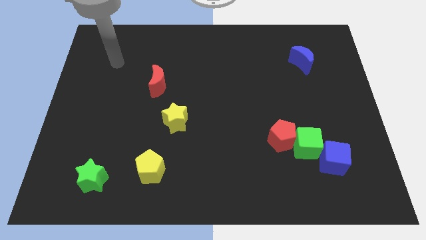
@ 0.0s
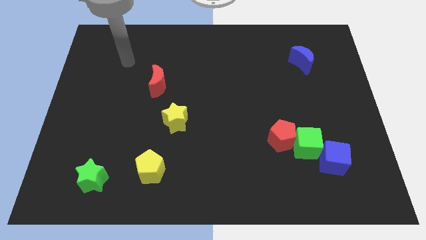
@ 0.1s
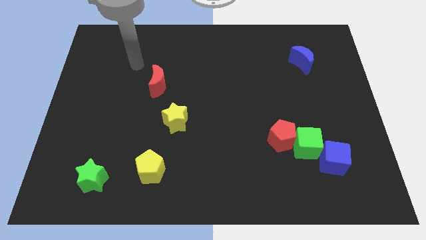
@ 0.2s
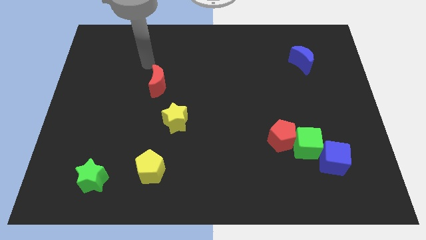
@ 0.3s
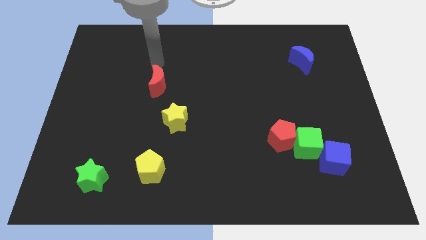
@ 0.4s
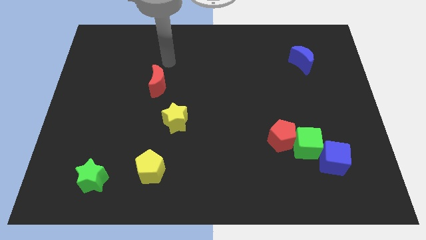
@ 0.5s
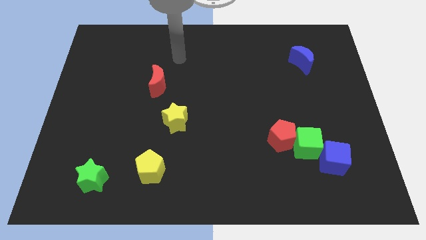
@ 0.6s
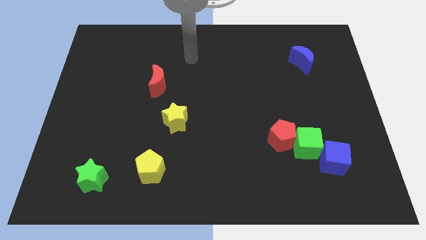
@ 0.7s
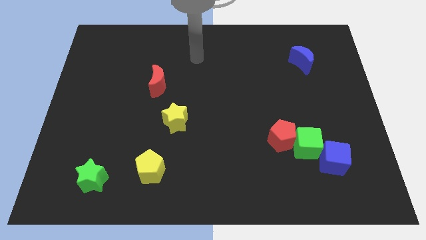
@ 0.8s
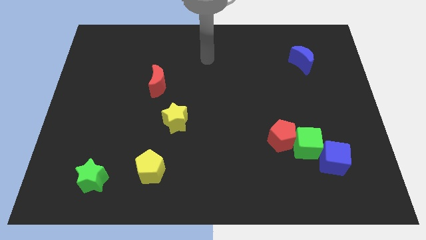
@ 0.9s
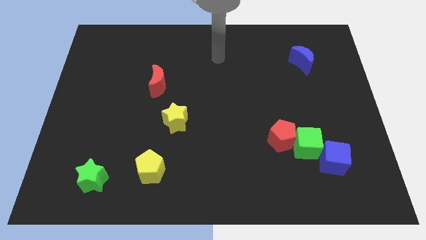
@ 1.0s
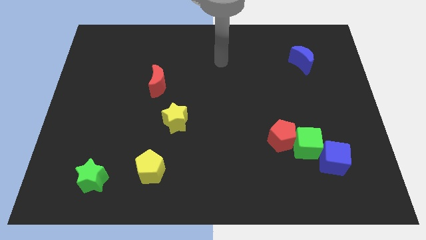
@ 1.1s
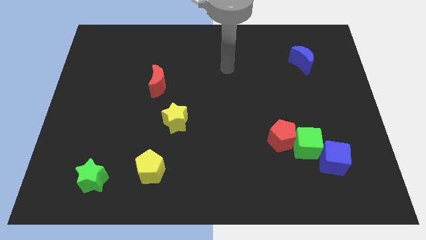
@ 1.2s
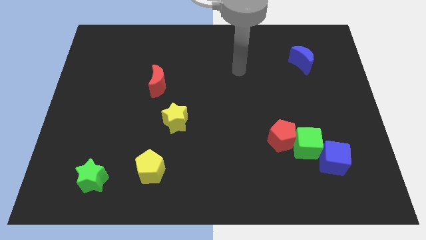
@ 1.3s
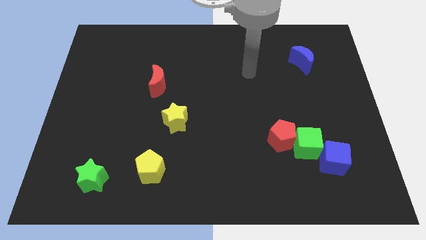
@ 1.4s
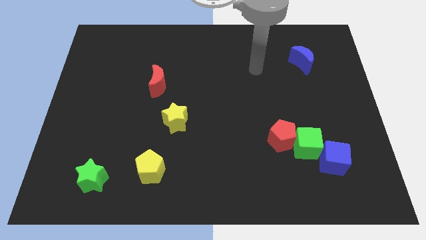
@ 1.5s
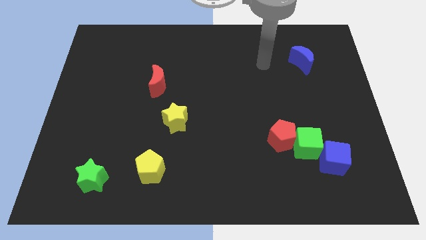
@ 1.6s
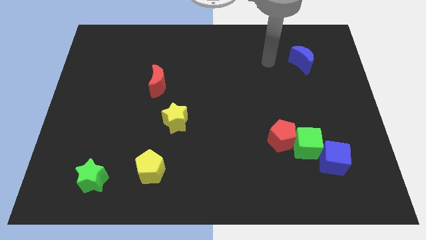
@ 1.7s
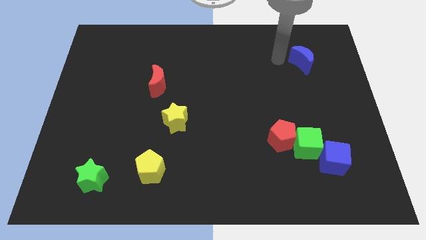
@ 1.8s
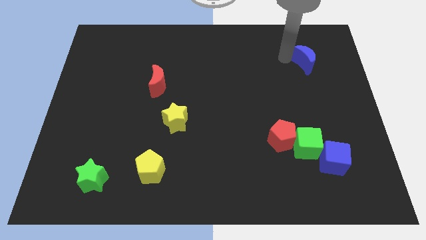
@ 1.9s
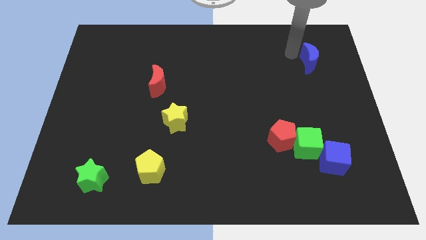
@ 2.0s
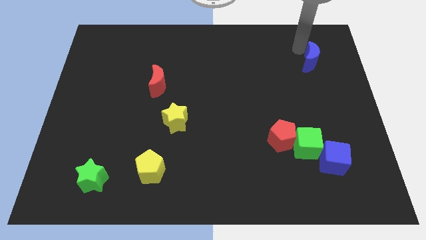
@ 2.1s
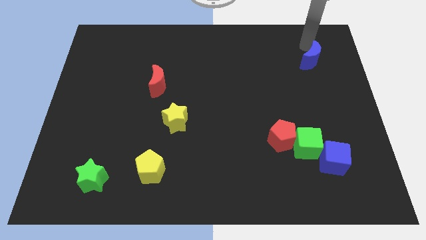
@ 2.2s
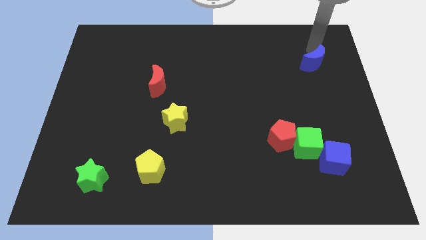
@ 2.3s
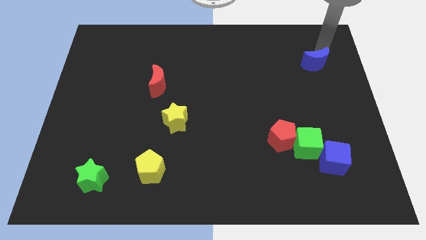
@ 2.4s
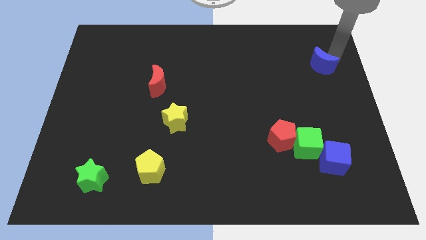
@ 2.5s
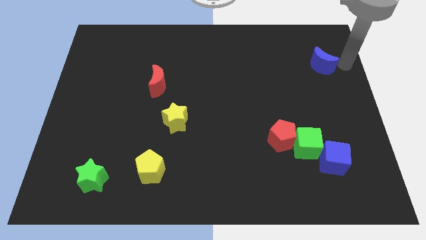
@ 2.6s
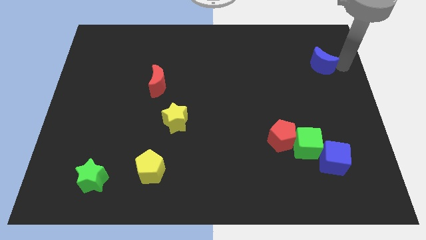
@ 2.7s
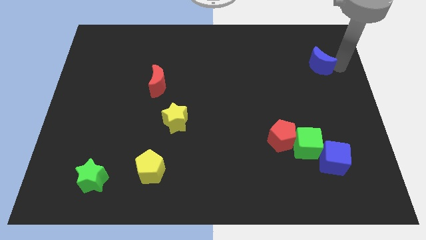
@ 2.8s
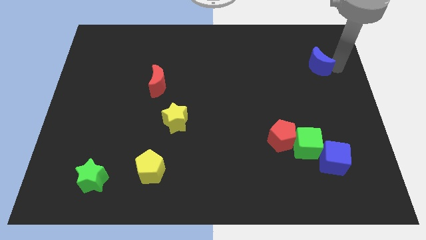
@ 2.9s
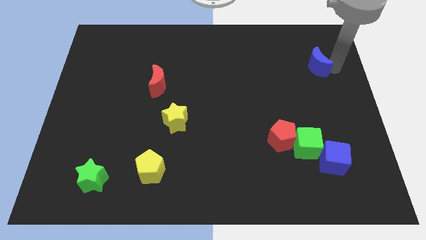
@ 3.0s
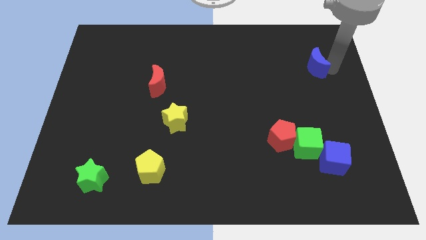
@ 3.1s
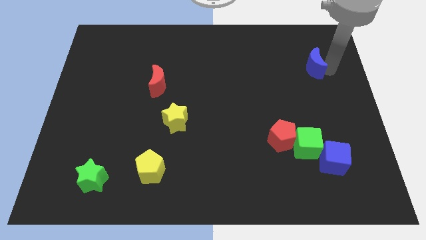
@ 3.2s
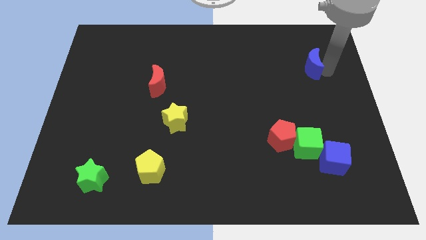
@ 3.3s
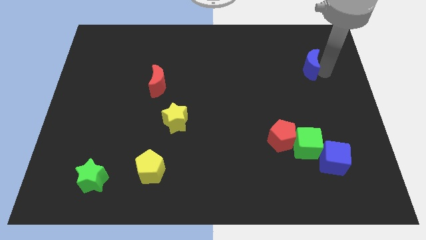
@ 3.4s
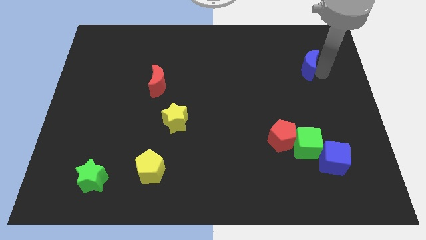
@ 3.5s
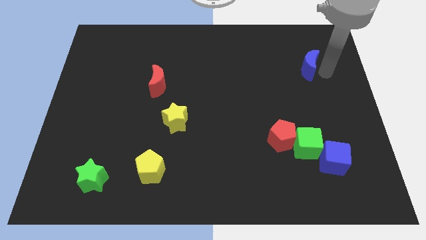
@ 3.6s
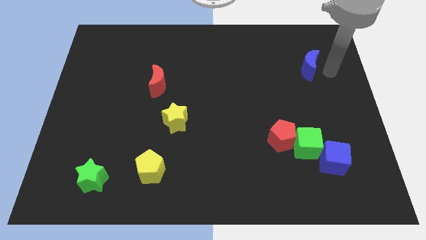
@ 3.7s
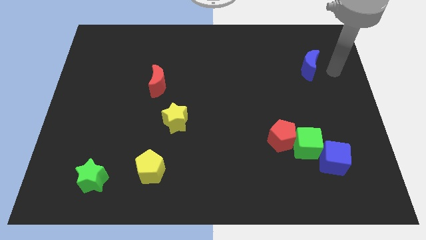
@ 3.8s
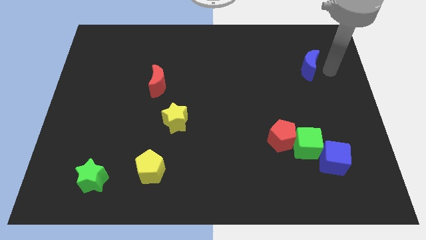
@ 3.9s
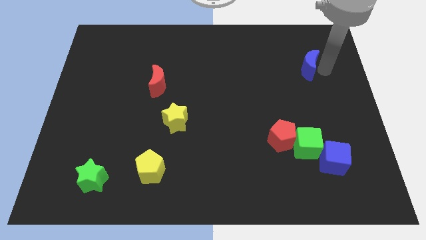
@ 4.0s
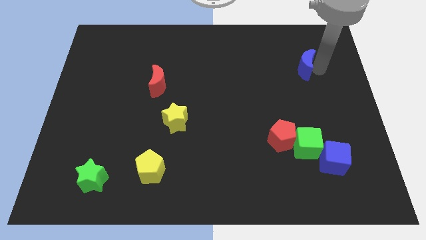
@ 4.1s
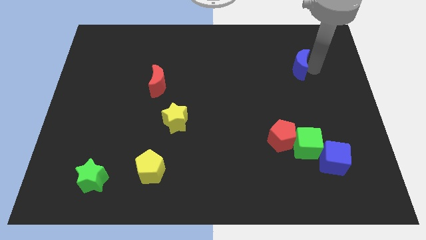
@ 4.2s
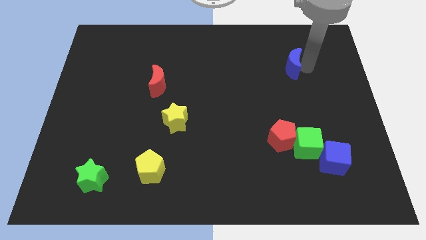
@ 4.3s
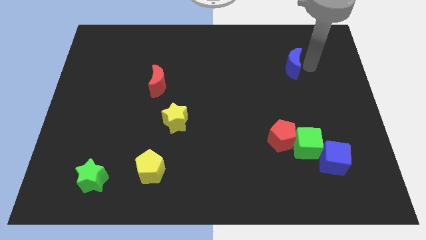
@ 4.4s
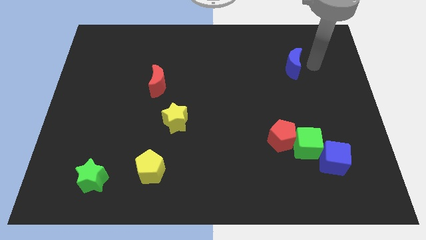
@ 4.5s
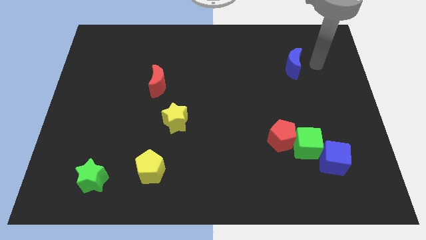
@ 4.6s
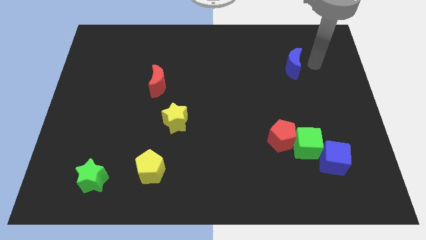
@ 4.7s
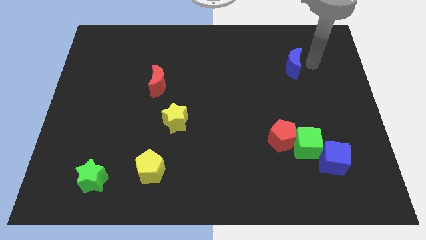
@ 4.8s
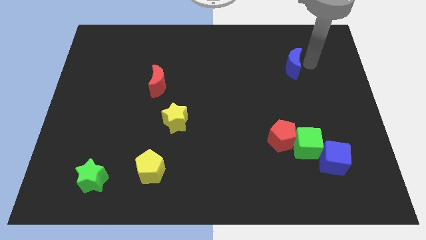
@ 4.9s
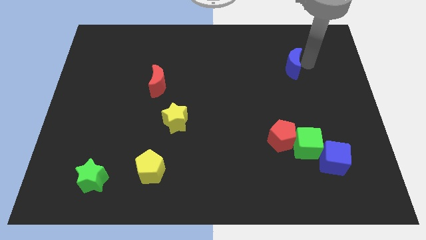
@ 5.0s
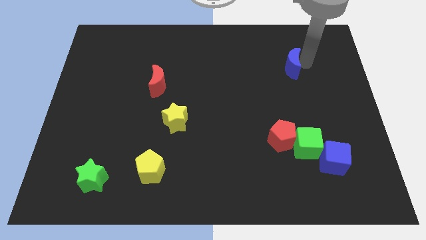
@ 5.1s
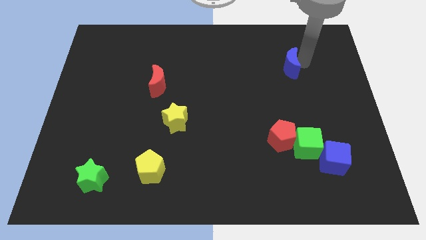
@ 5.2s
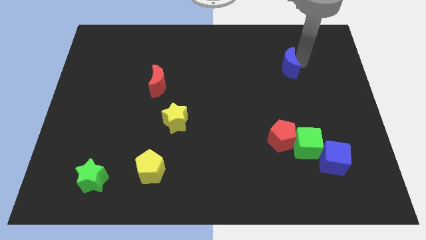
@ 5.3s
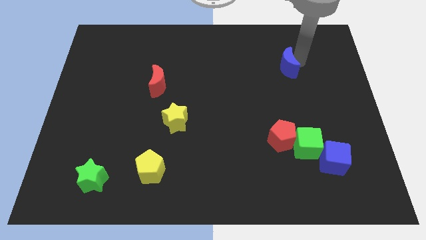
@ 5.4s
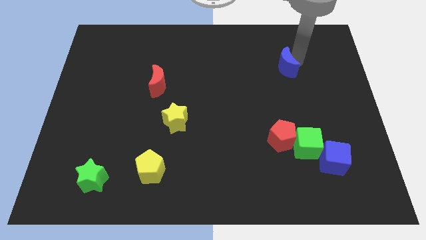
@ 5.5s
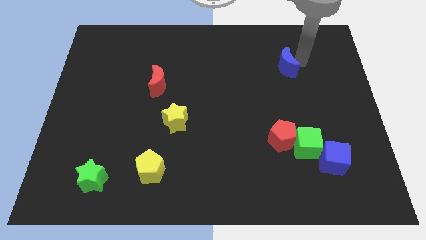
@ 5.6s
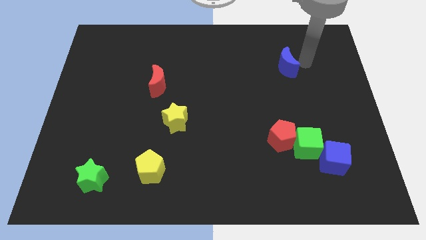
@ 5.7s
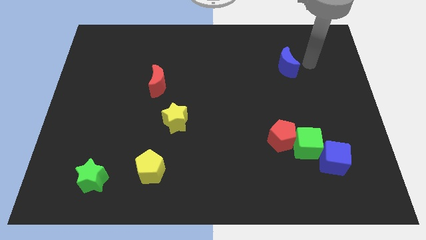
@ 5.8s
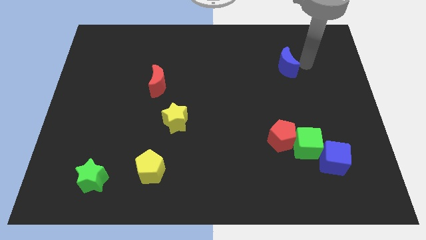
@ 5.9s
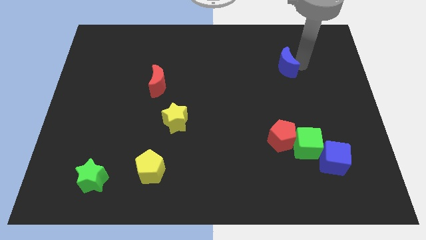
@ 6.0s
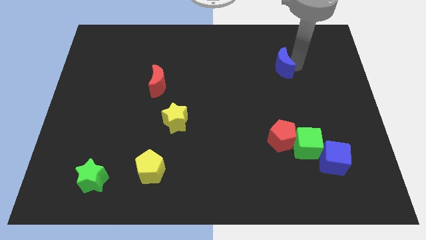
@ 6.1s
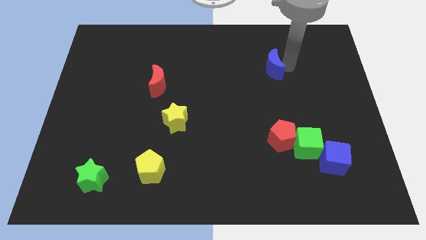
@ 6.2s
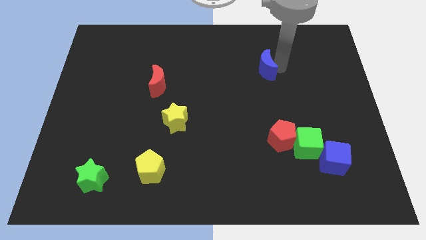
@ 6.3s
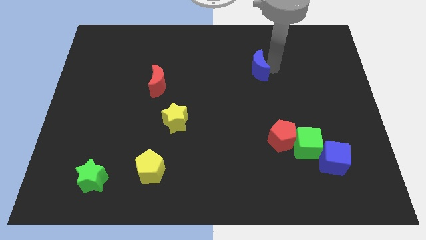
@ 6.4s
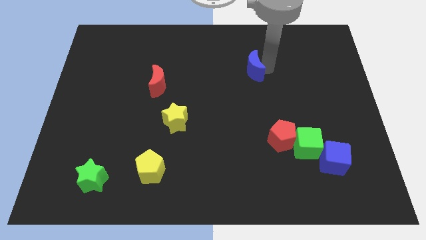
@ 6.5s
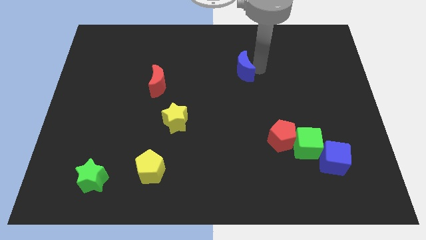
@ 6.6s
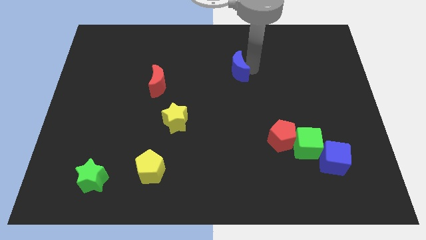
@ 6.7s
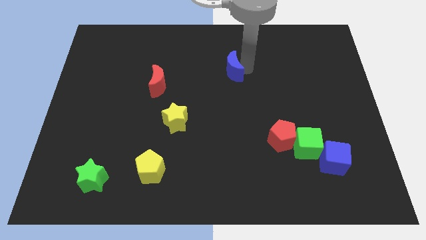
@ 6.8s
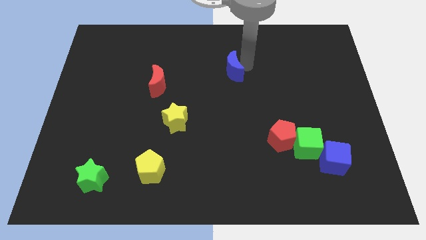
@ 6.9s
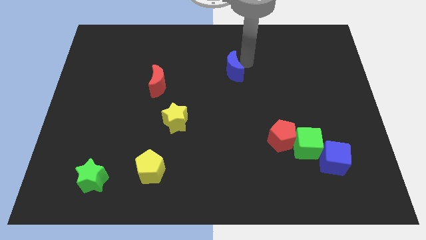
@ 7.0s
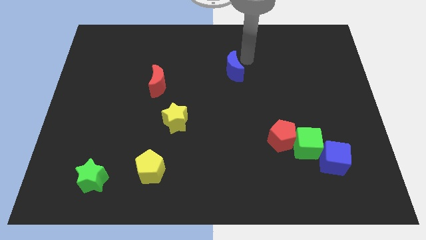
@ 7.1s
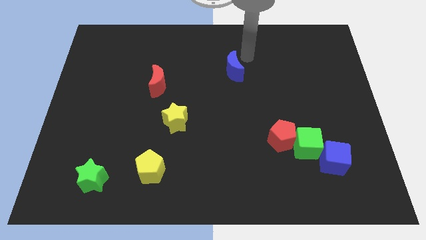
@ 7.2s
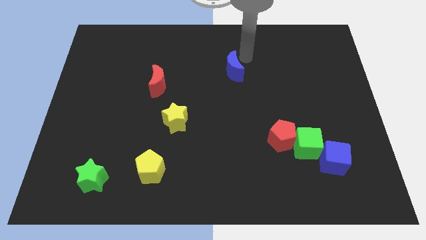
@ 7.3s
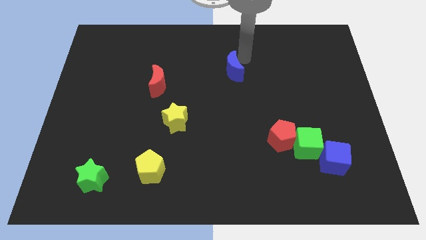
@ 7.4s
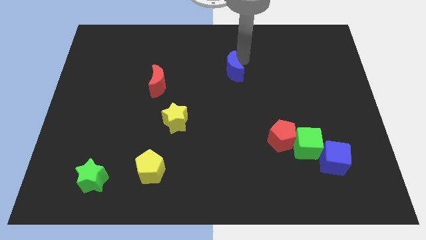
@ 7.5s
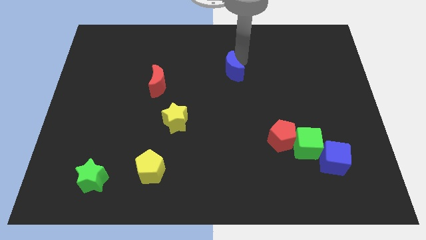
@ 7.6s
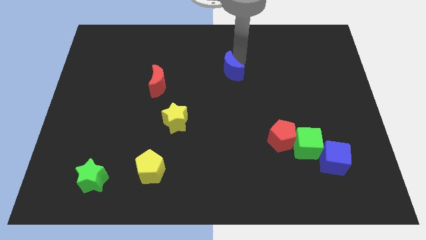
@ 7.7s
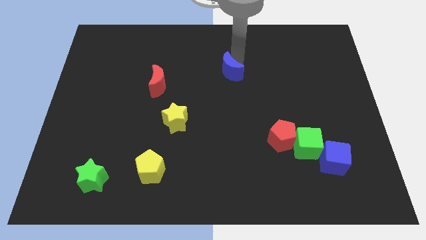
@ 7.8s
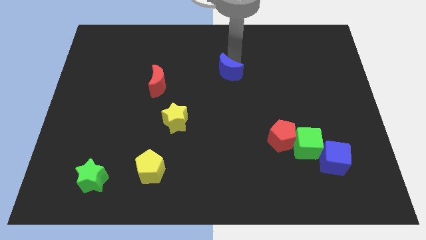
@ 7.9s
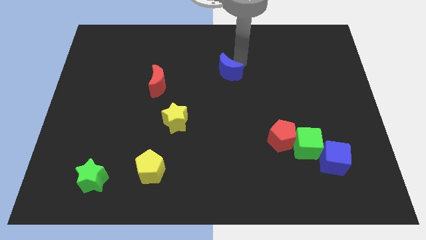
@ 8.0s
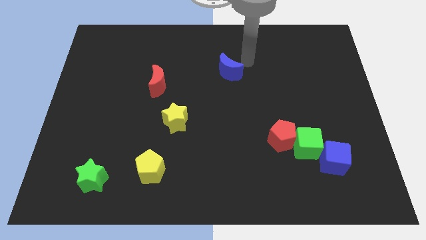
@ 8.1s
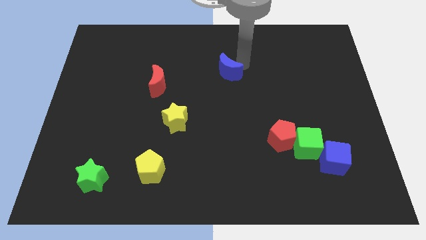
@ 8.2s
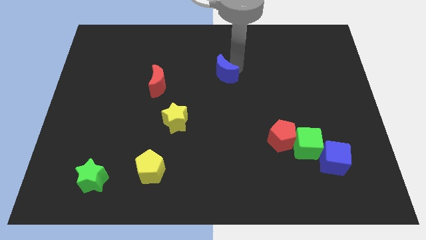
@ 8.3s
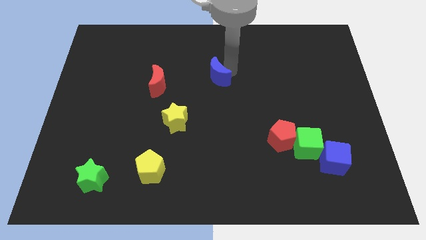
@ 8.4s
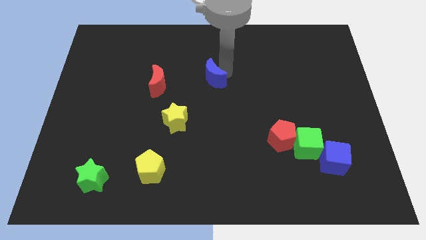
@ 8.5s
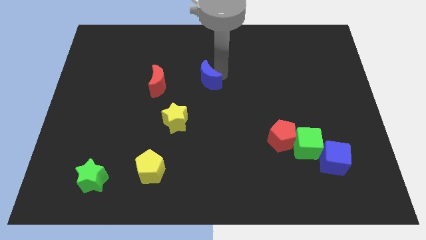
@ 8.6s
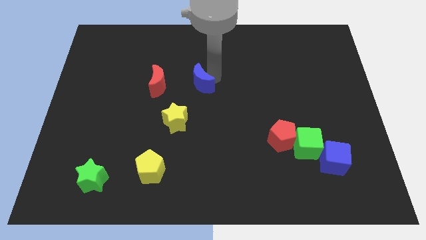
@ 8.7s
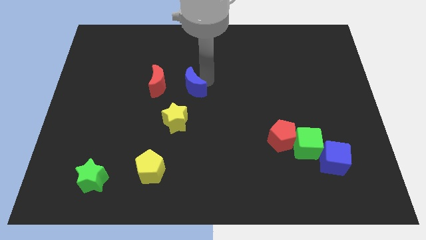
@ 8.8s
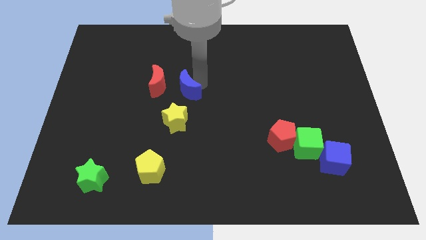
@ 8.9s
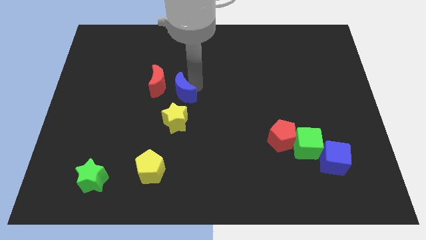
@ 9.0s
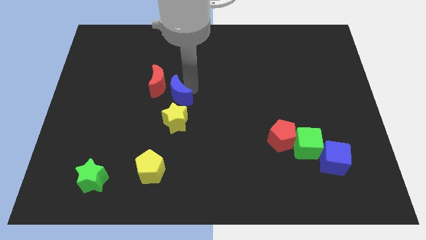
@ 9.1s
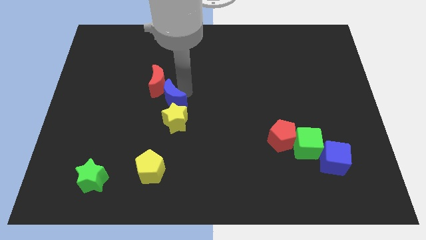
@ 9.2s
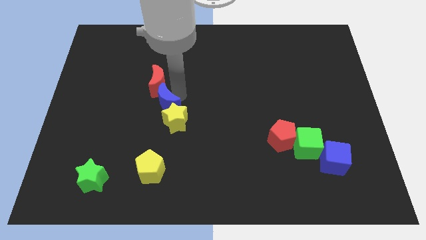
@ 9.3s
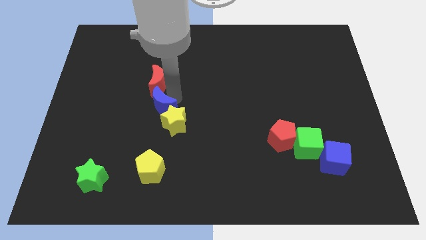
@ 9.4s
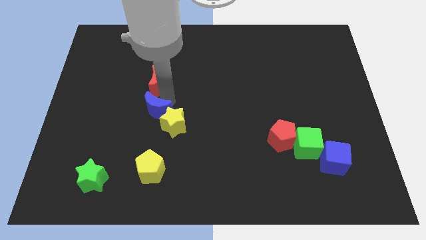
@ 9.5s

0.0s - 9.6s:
slide the blue moon to the top of the yellow pentagon
